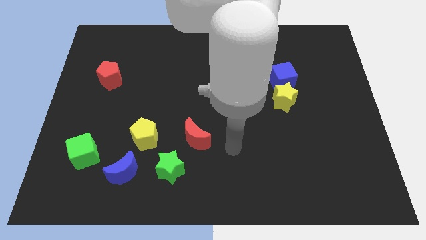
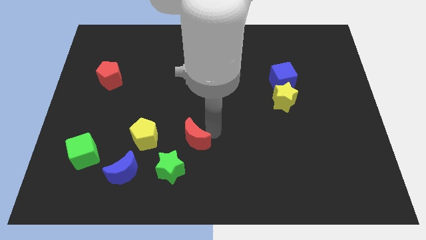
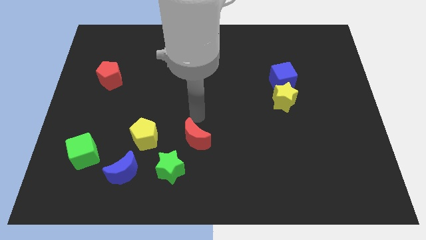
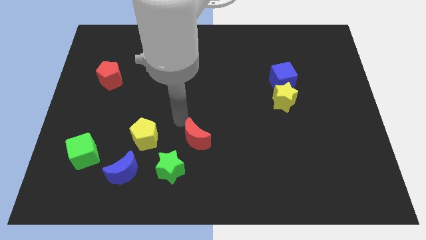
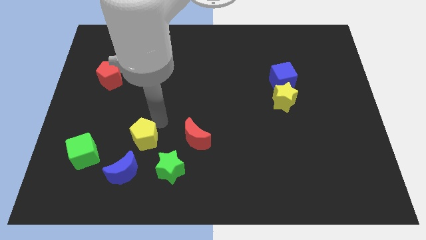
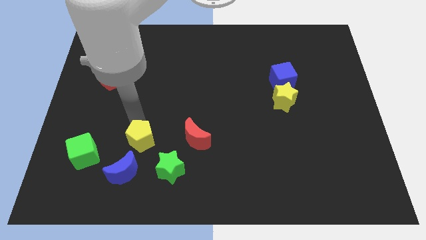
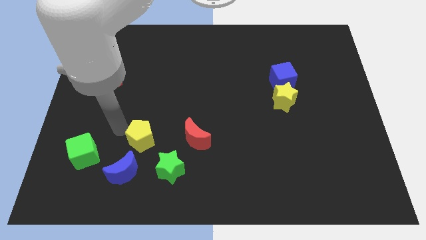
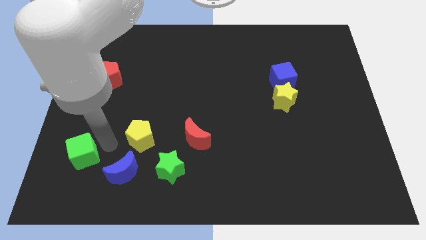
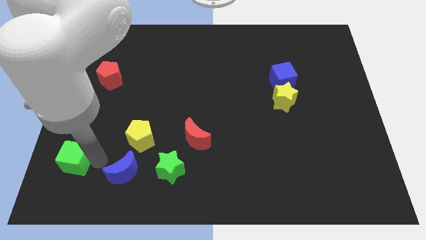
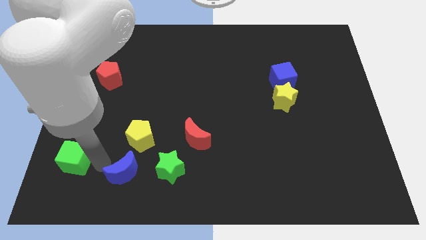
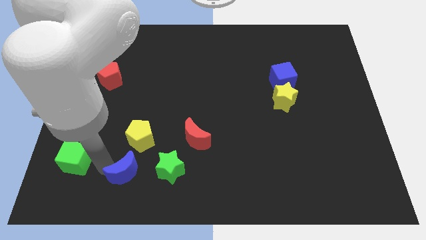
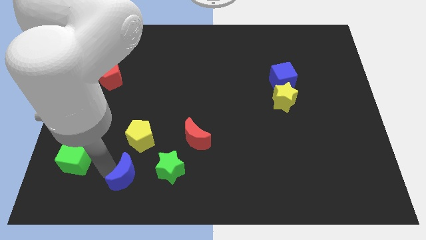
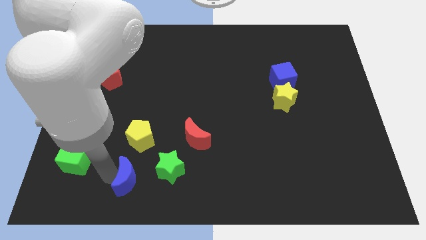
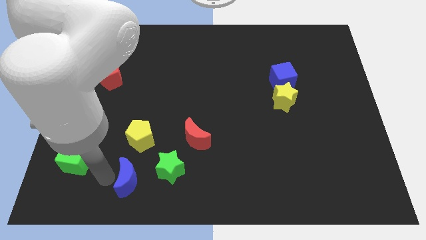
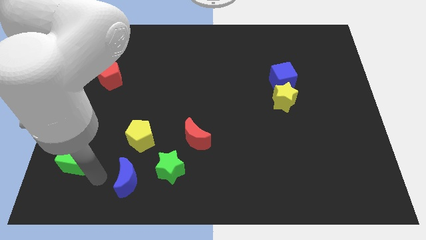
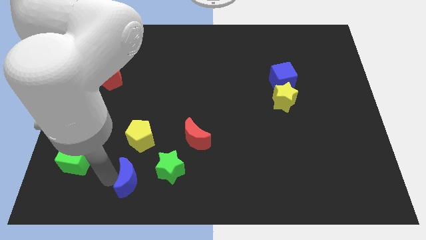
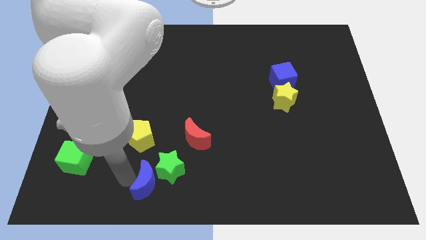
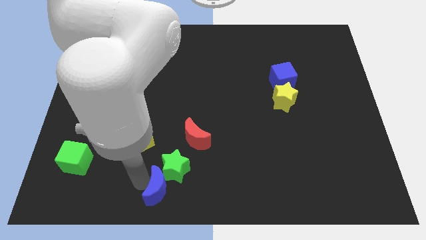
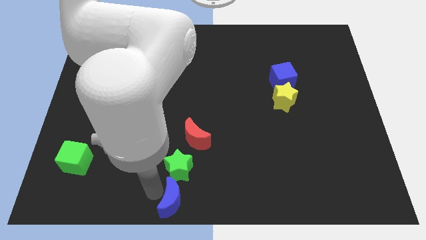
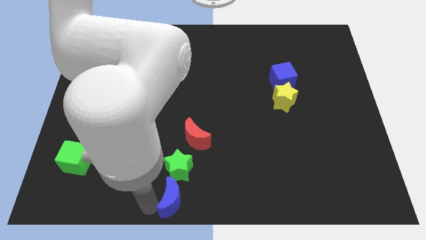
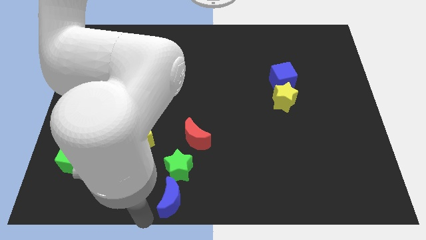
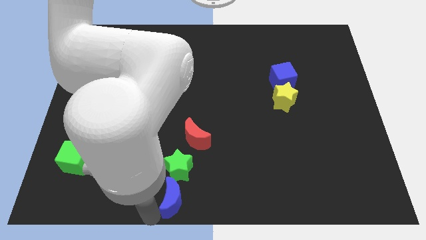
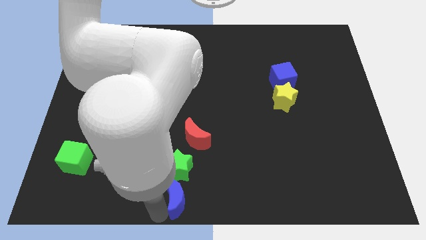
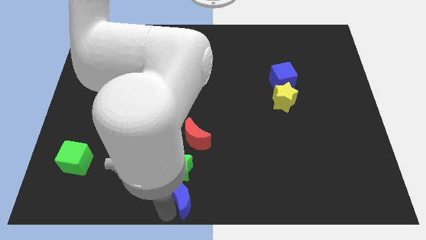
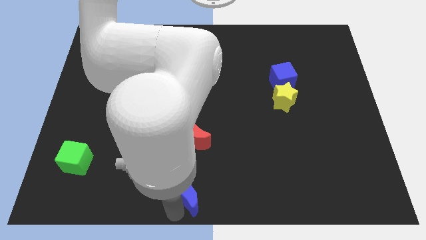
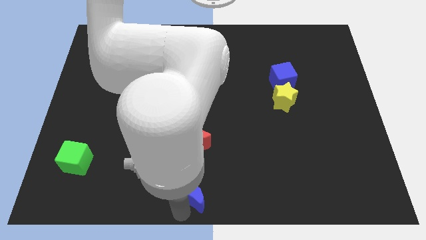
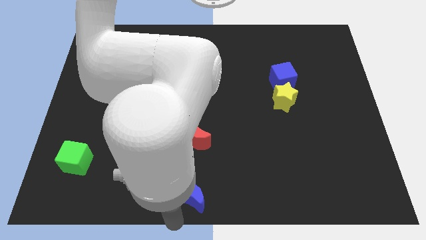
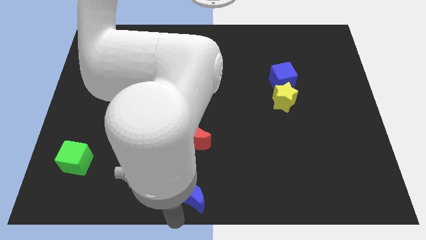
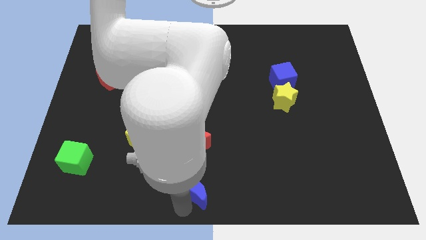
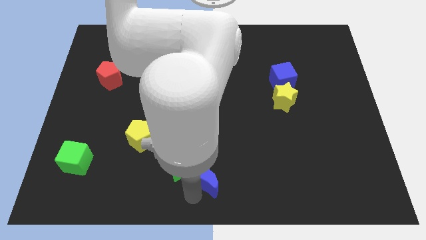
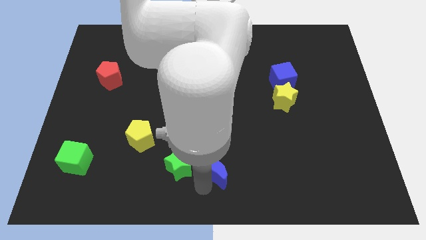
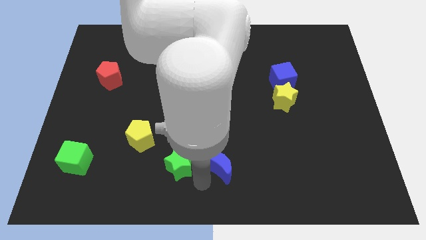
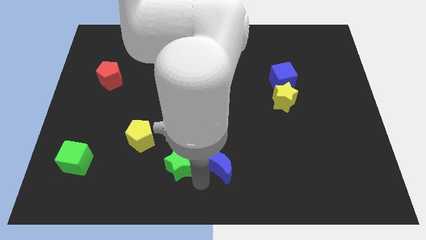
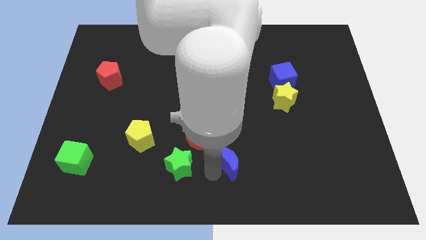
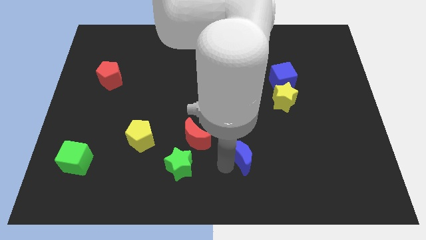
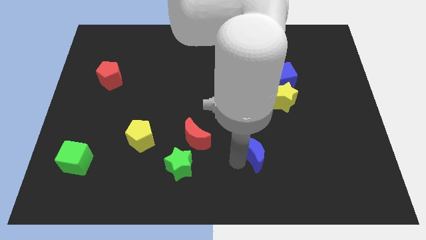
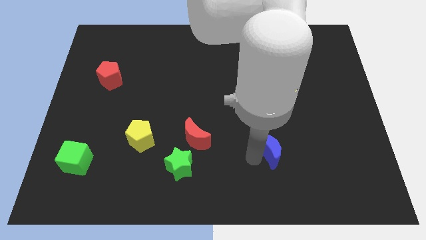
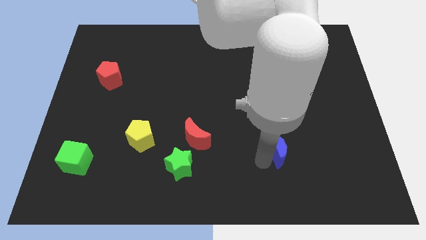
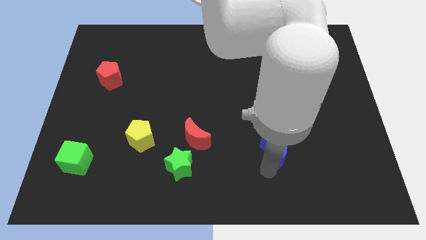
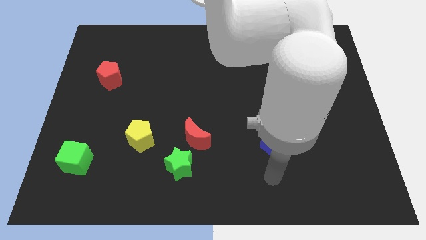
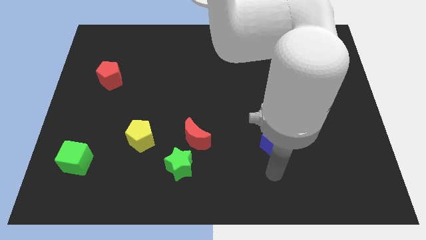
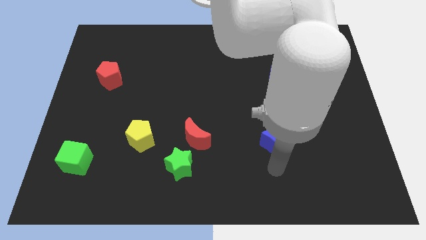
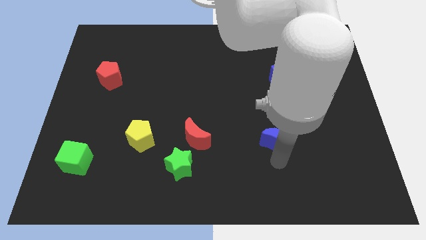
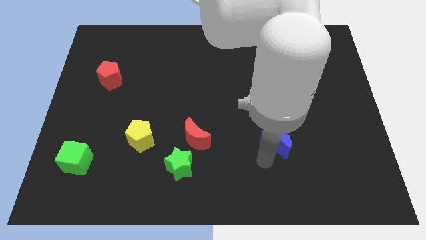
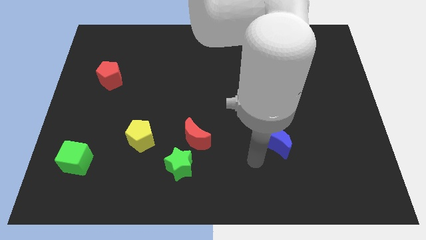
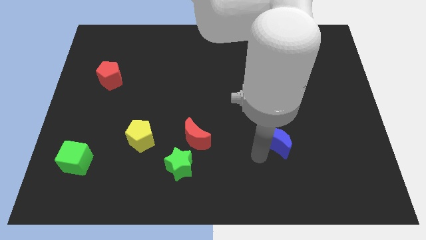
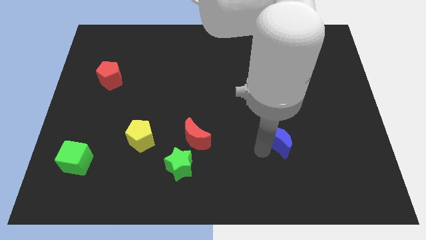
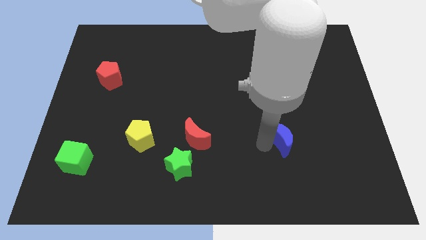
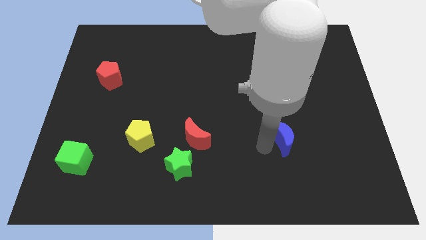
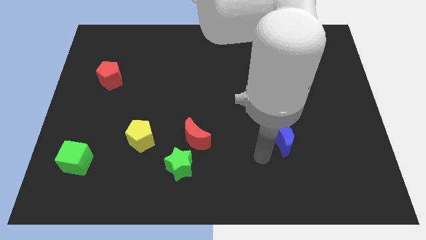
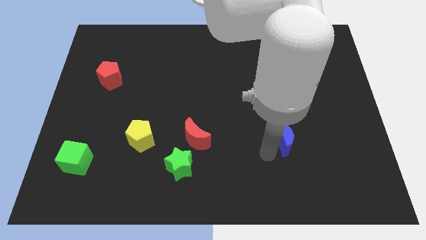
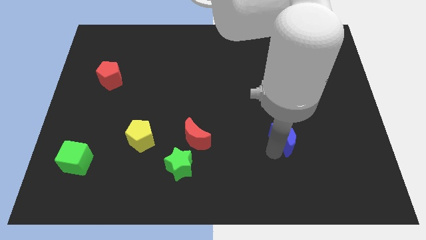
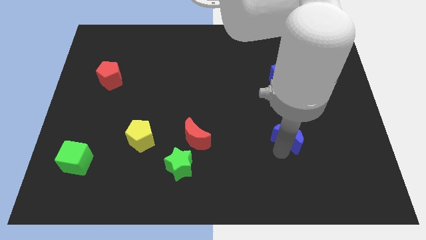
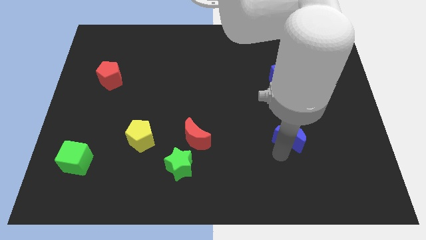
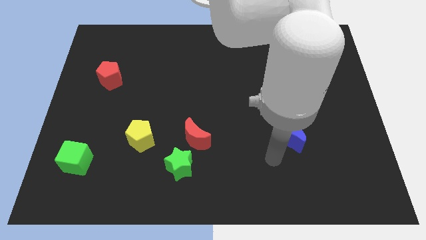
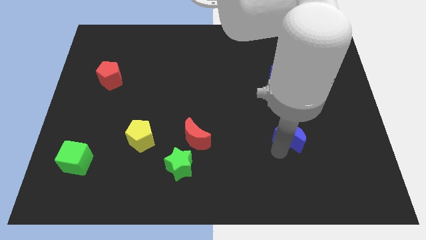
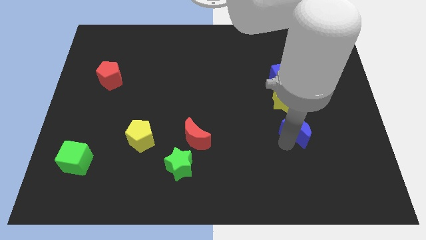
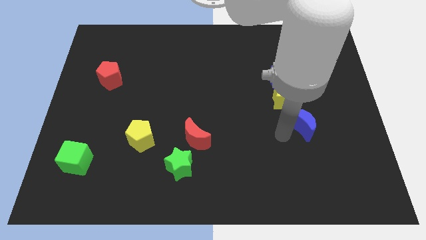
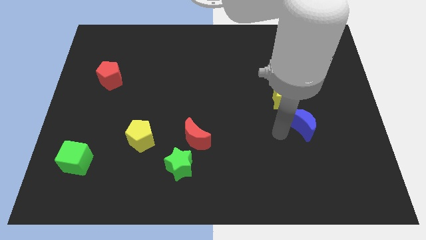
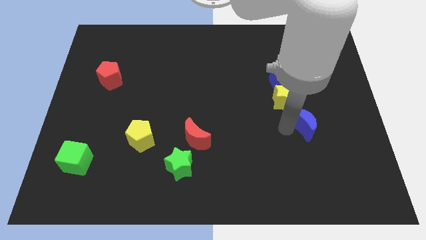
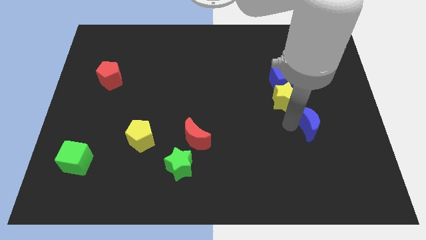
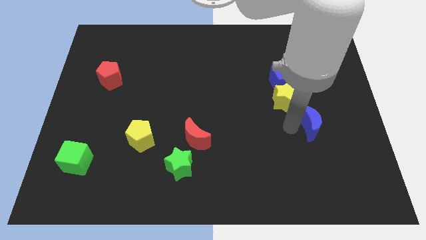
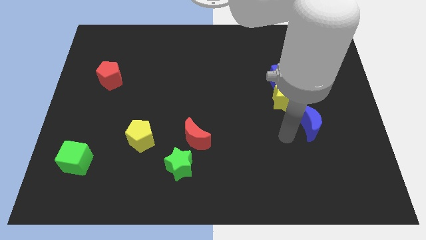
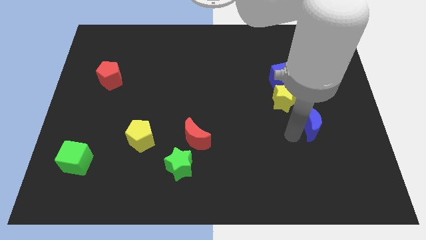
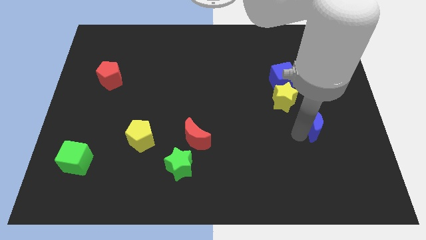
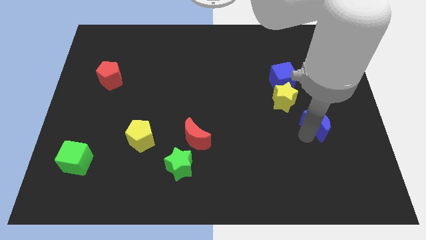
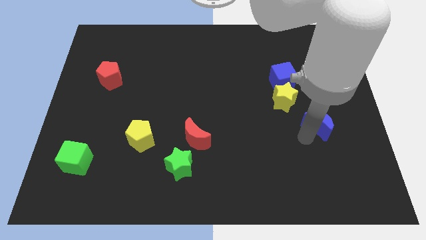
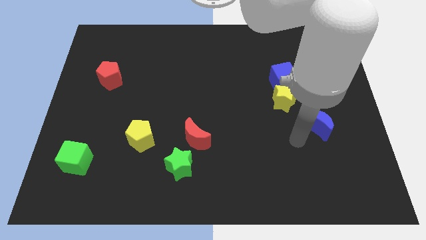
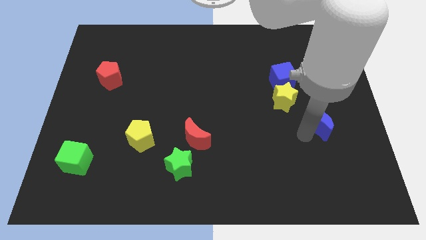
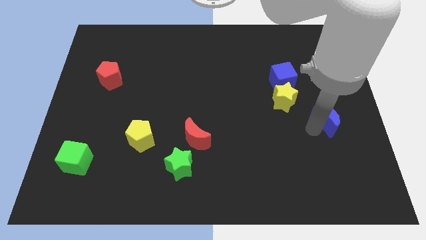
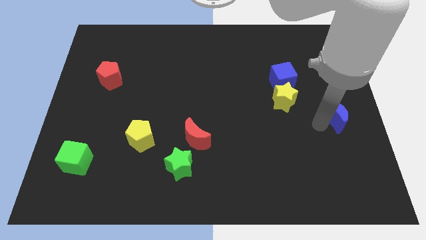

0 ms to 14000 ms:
put the blue moon to the right side

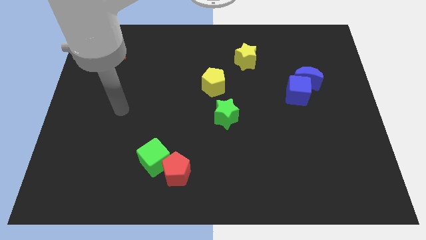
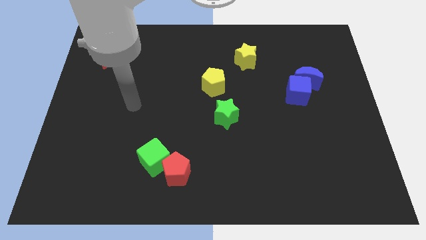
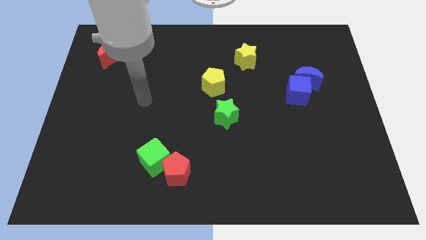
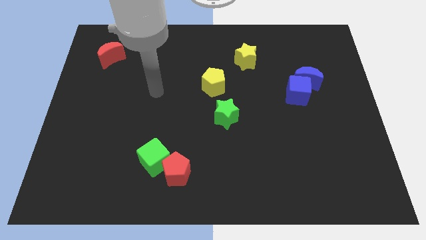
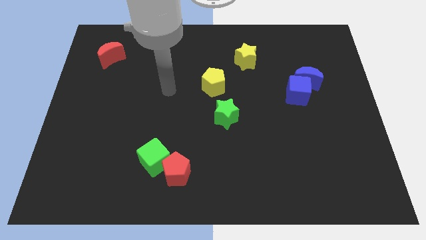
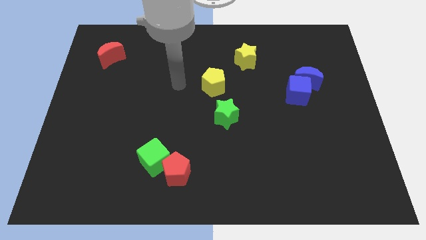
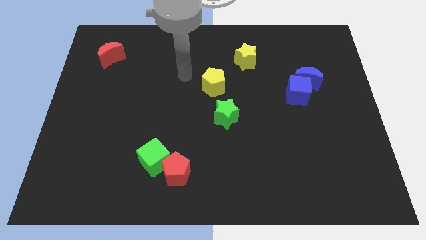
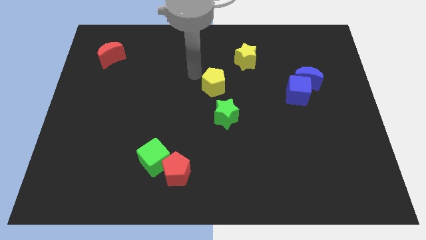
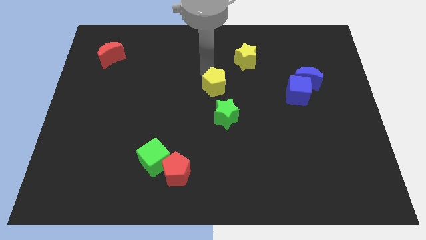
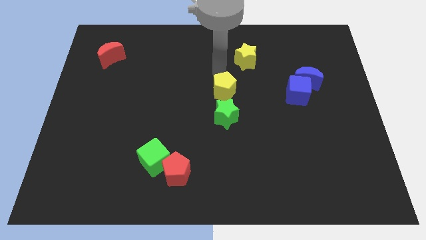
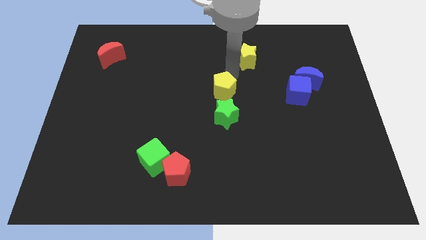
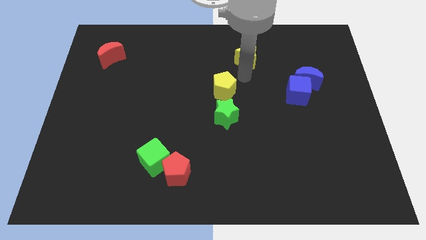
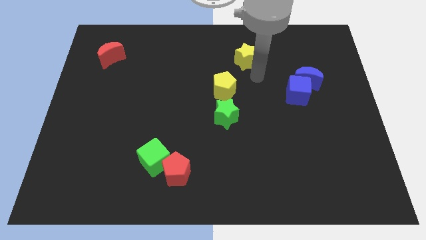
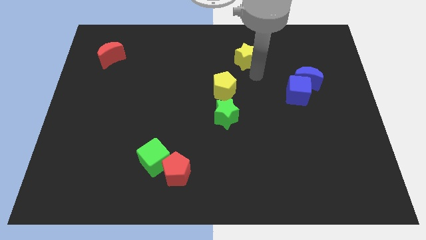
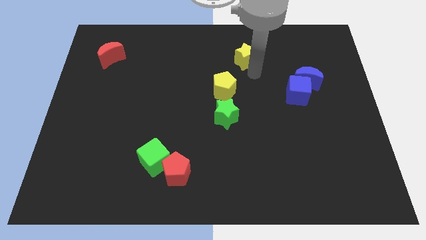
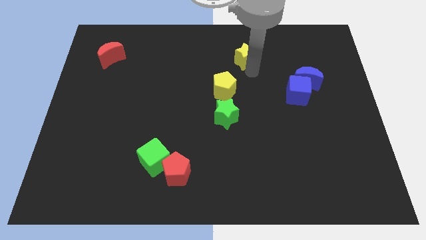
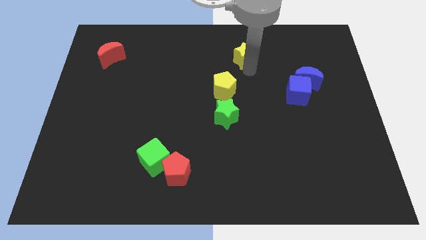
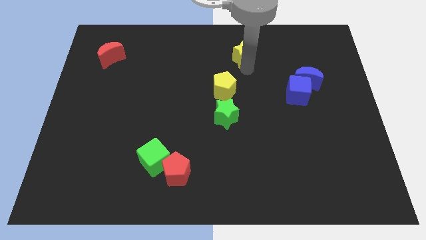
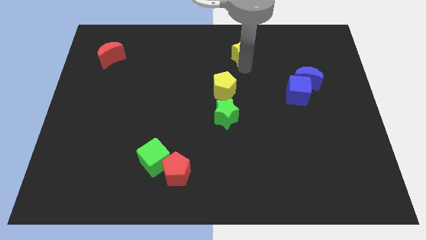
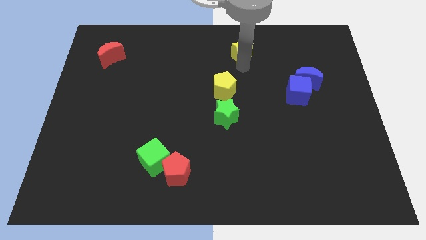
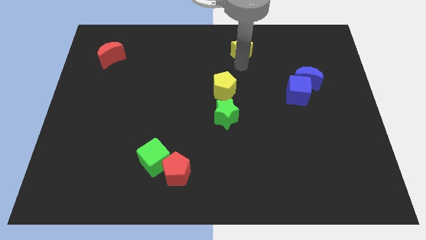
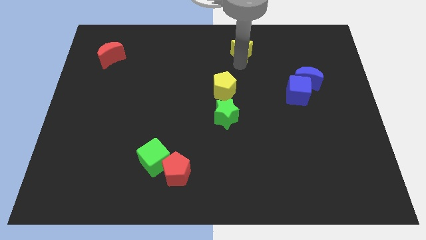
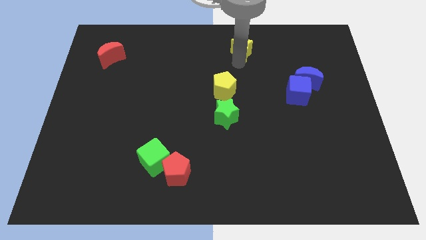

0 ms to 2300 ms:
move the yellow star to the top
